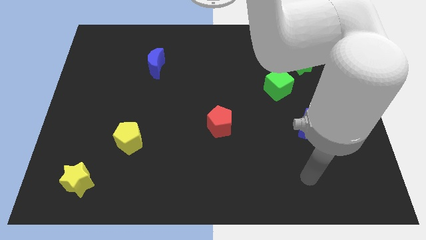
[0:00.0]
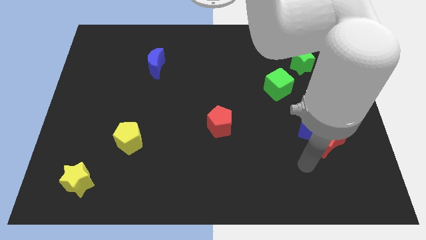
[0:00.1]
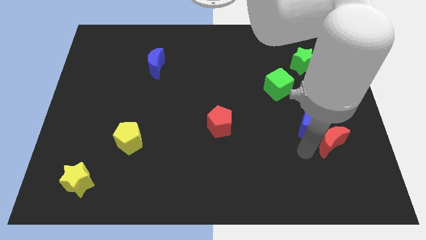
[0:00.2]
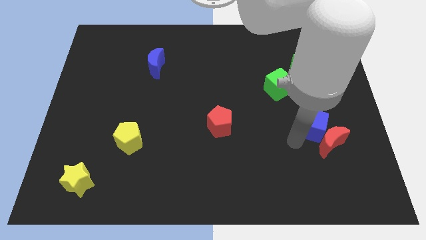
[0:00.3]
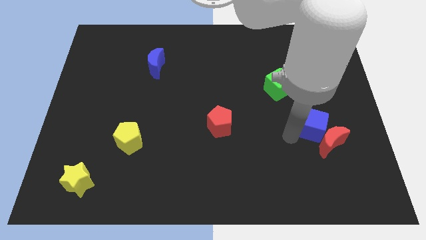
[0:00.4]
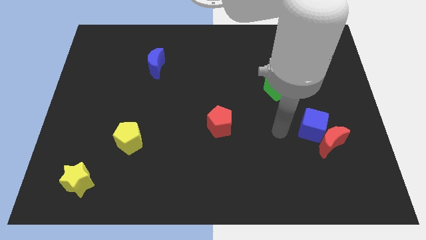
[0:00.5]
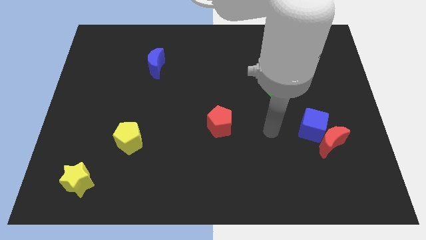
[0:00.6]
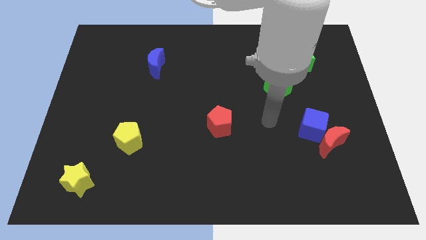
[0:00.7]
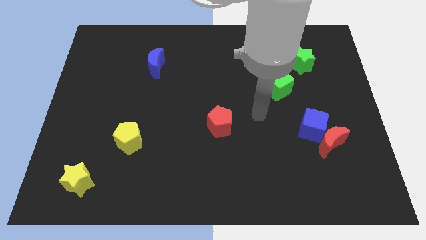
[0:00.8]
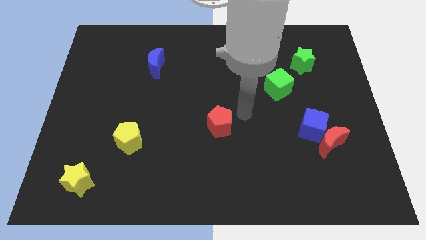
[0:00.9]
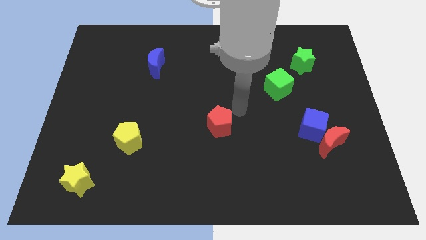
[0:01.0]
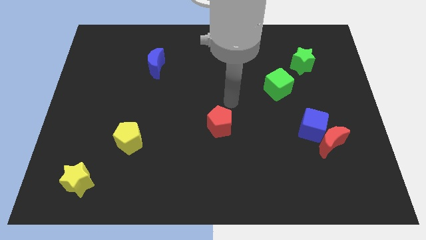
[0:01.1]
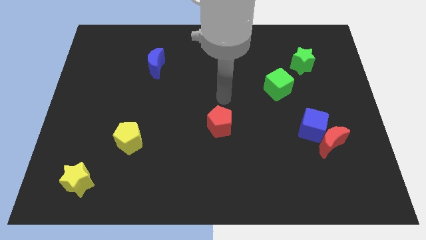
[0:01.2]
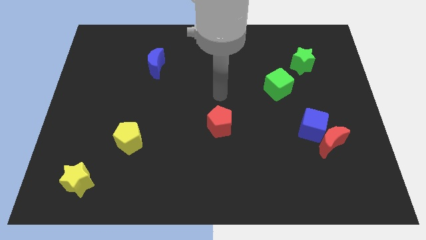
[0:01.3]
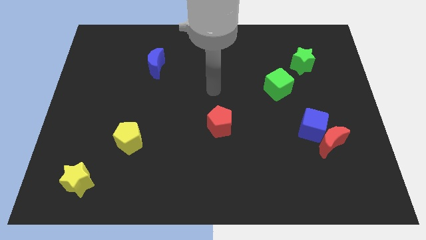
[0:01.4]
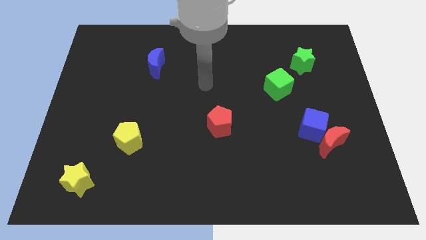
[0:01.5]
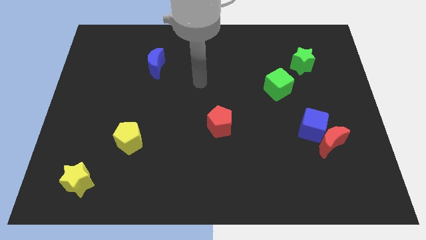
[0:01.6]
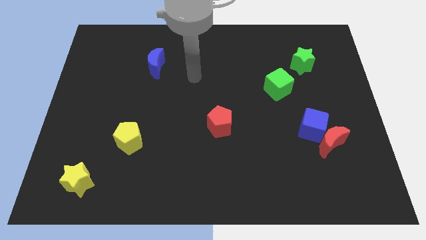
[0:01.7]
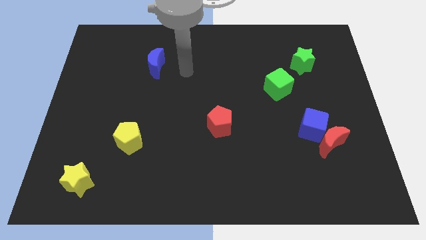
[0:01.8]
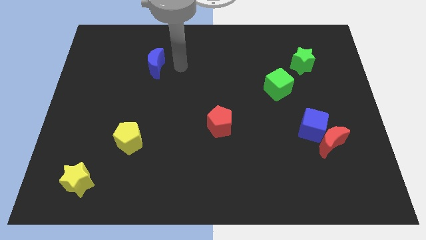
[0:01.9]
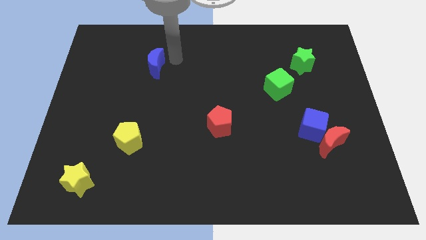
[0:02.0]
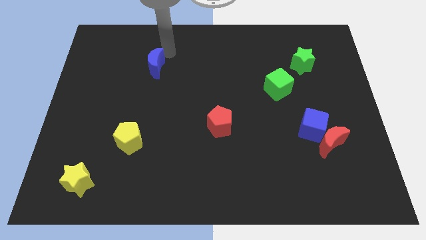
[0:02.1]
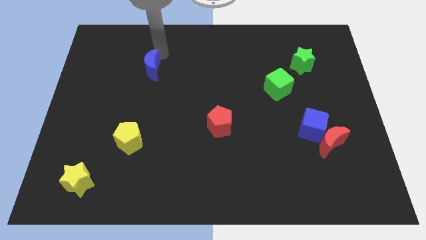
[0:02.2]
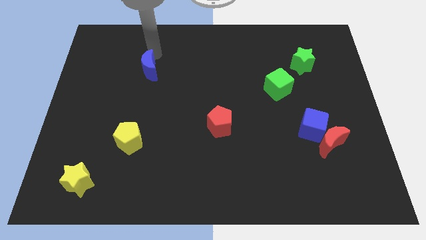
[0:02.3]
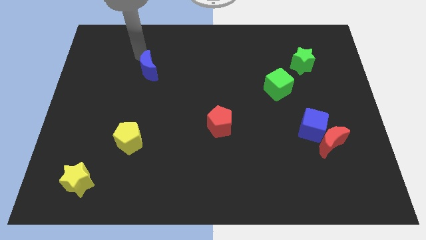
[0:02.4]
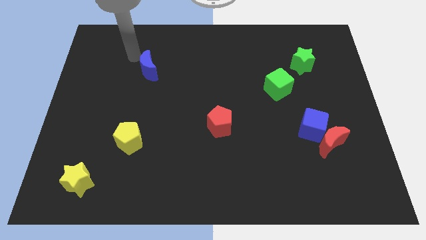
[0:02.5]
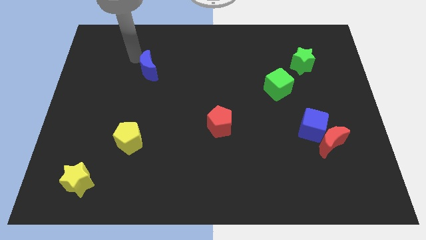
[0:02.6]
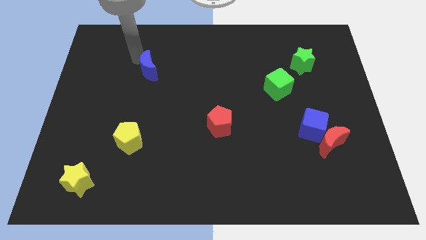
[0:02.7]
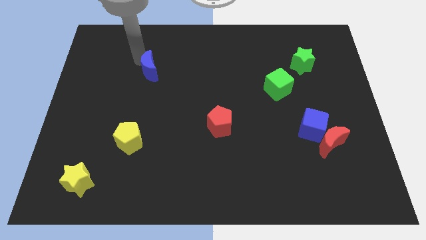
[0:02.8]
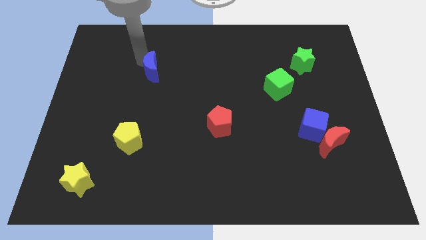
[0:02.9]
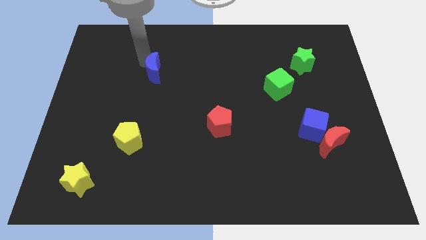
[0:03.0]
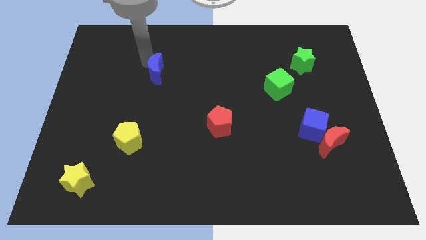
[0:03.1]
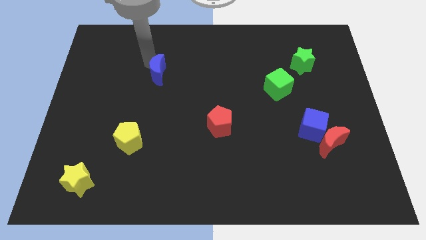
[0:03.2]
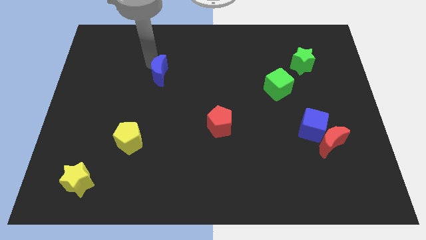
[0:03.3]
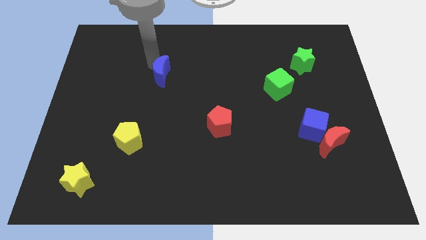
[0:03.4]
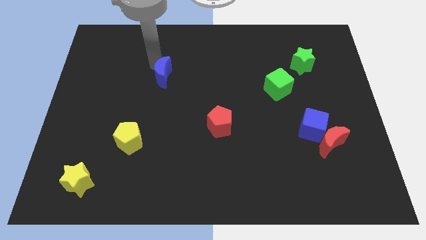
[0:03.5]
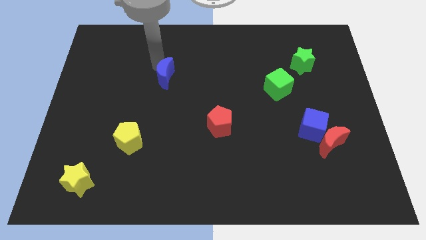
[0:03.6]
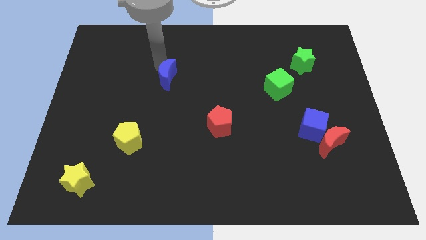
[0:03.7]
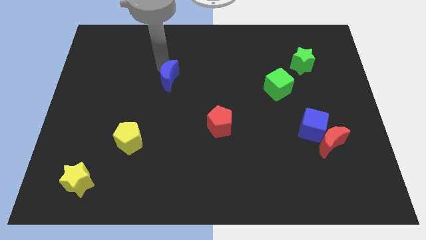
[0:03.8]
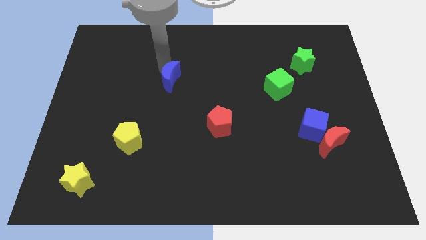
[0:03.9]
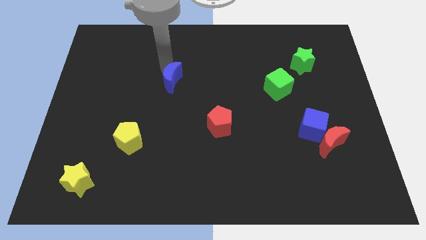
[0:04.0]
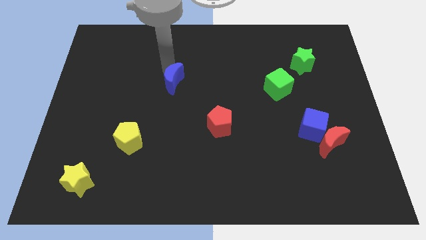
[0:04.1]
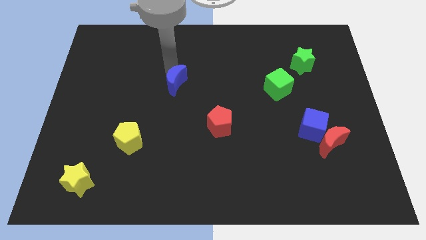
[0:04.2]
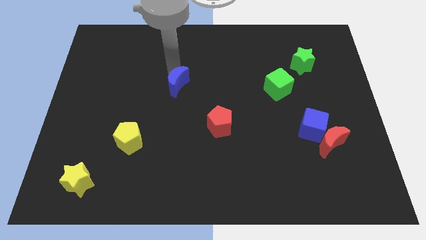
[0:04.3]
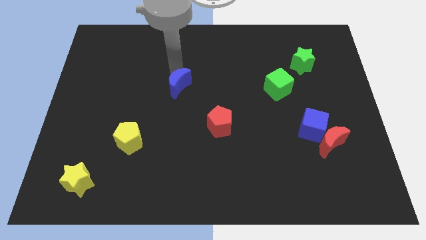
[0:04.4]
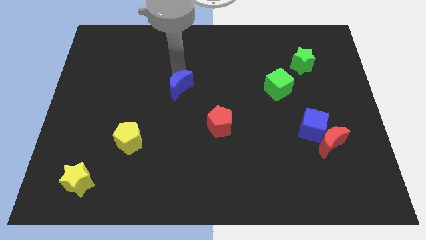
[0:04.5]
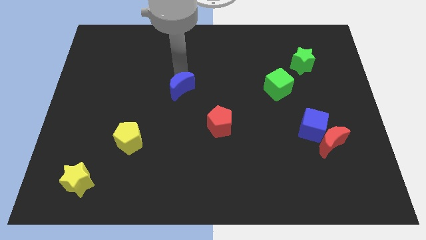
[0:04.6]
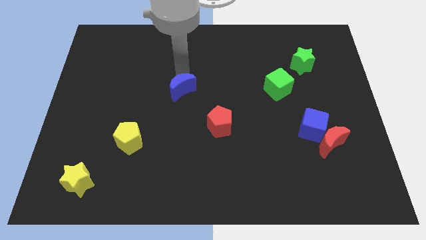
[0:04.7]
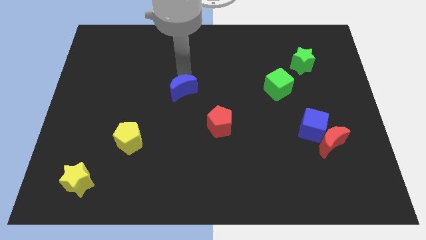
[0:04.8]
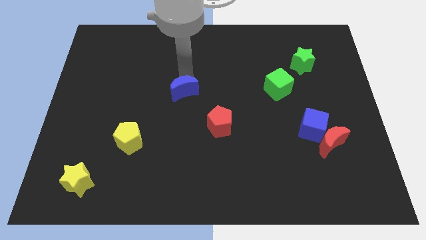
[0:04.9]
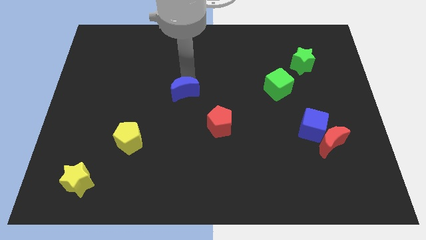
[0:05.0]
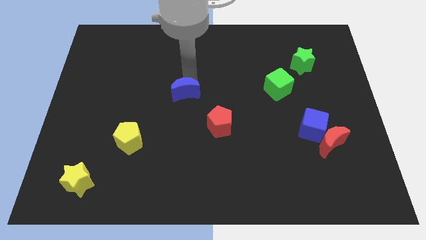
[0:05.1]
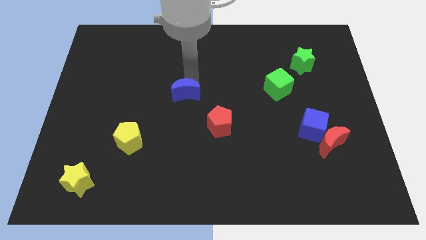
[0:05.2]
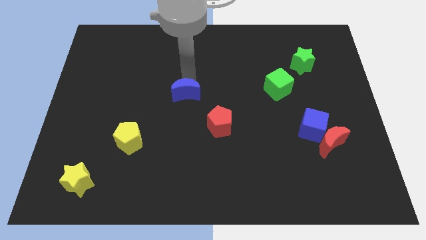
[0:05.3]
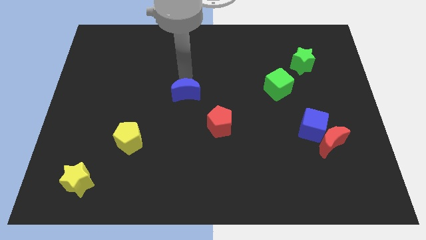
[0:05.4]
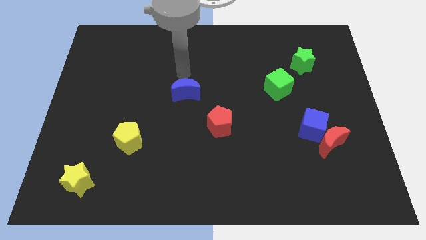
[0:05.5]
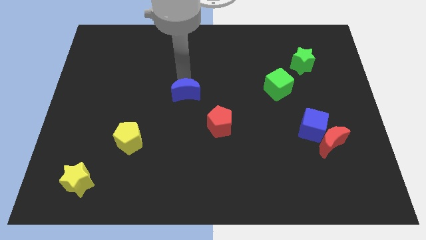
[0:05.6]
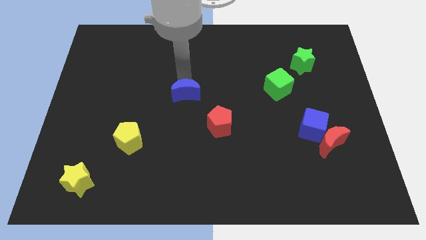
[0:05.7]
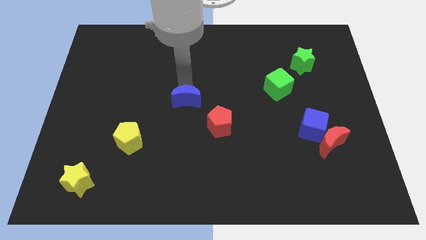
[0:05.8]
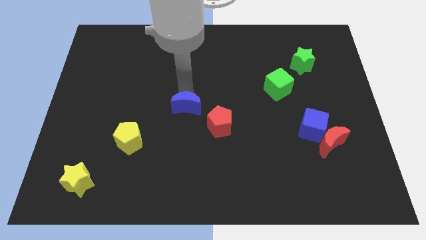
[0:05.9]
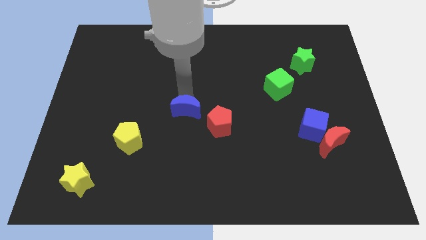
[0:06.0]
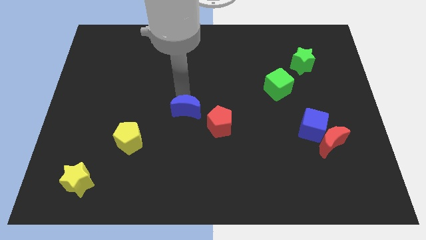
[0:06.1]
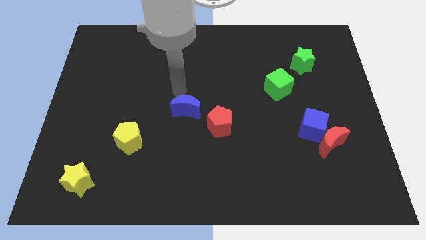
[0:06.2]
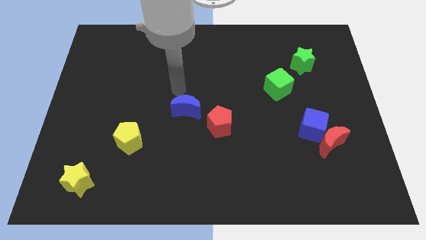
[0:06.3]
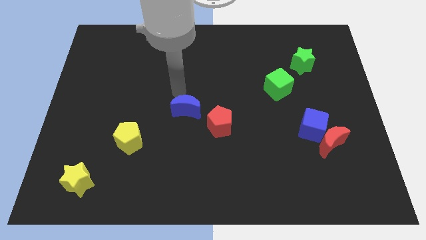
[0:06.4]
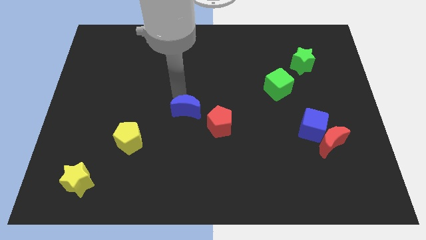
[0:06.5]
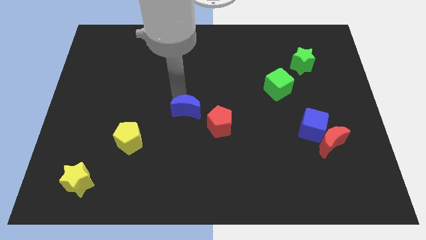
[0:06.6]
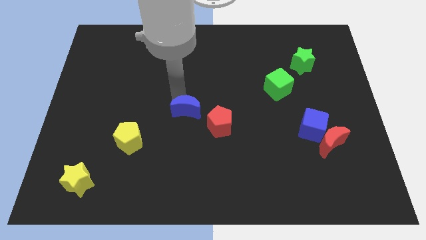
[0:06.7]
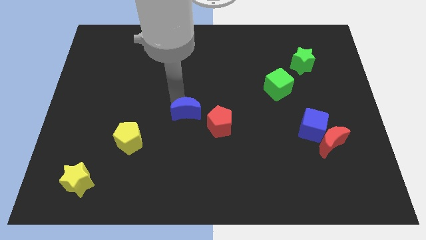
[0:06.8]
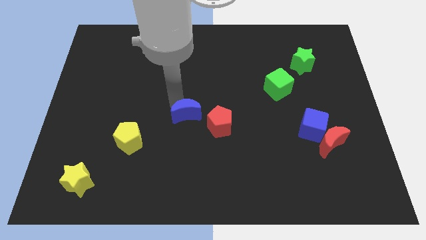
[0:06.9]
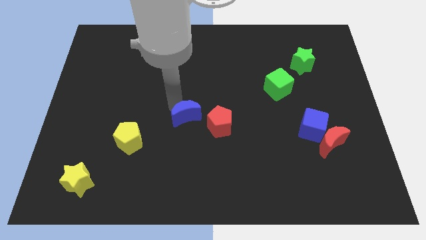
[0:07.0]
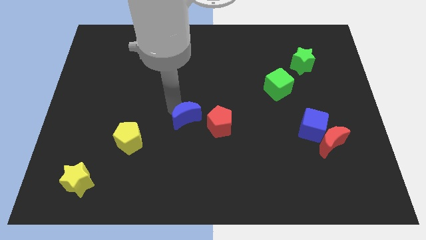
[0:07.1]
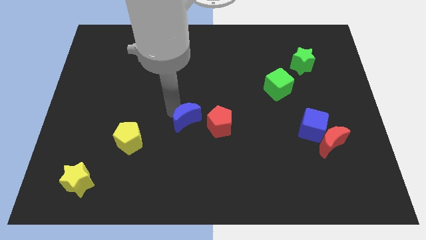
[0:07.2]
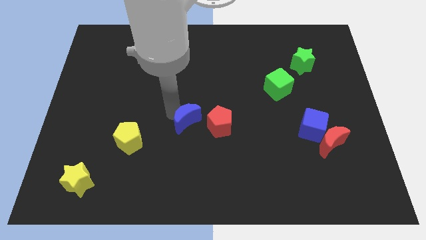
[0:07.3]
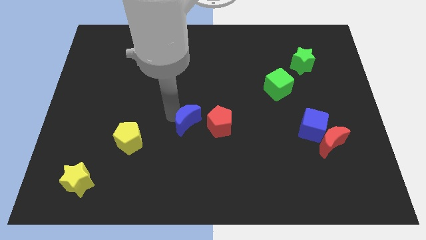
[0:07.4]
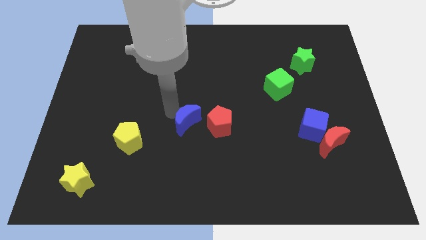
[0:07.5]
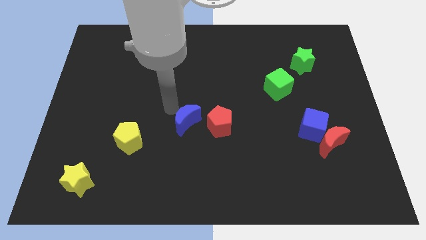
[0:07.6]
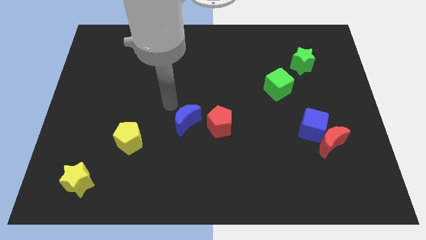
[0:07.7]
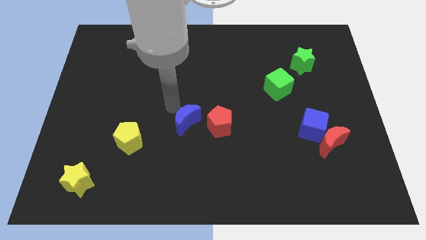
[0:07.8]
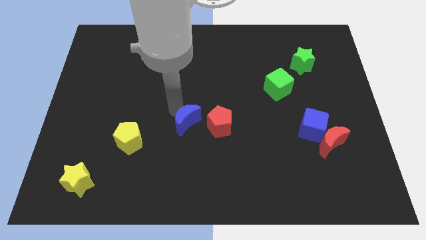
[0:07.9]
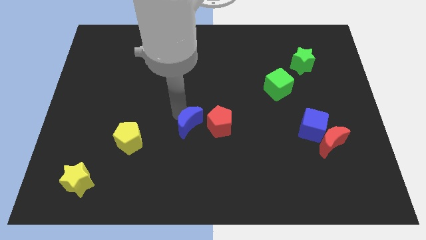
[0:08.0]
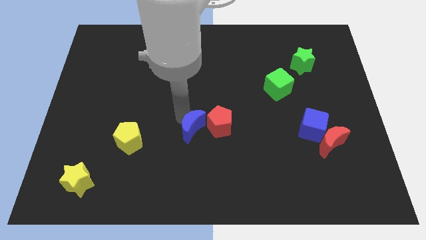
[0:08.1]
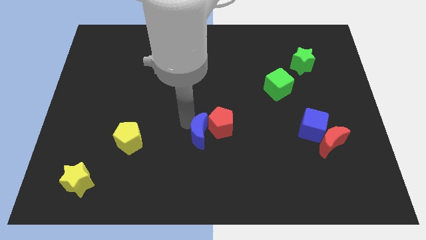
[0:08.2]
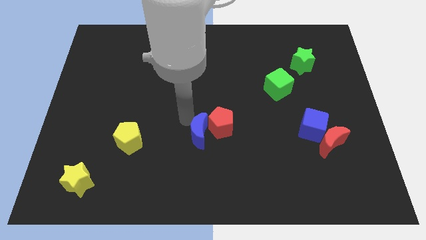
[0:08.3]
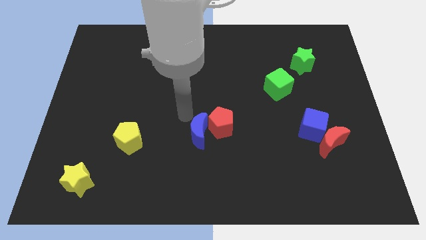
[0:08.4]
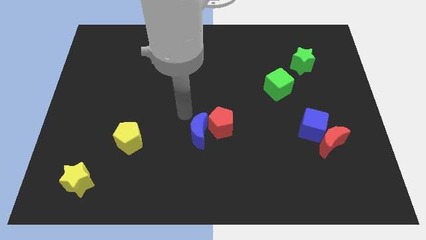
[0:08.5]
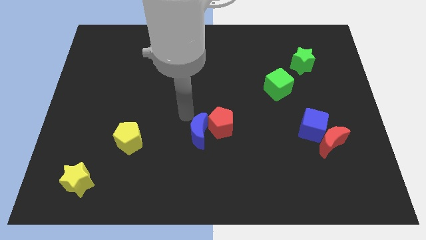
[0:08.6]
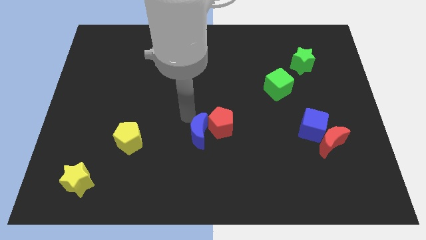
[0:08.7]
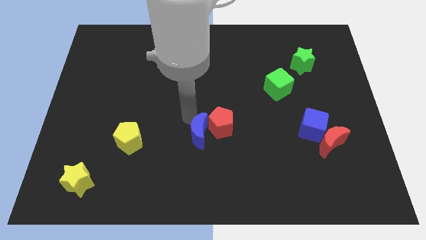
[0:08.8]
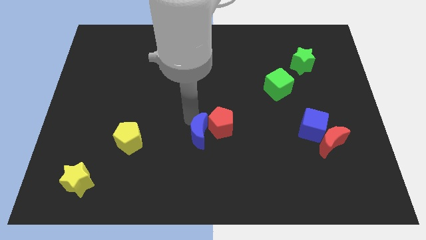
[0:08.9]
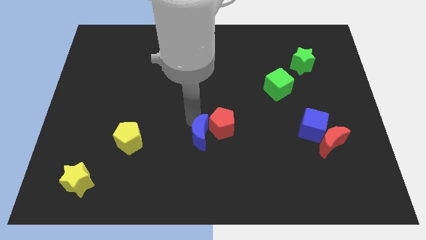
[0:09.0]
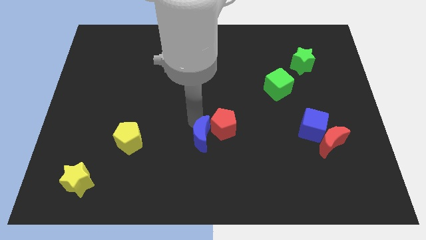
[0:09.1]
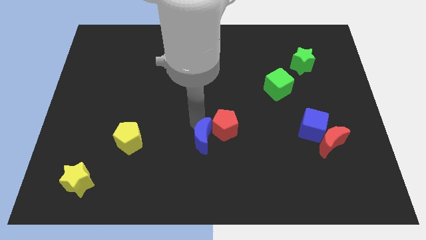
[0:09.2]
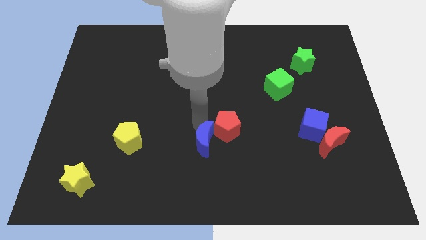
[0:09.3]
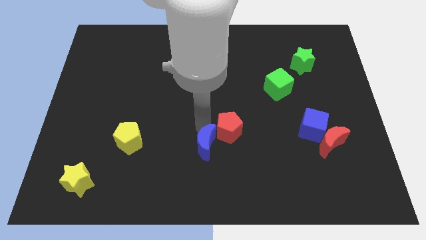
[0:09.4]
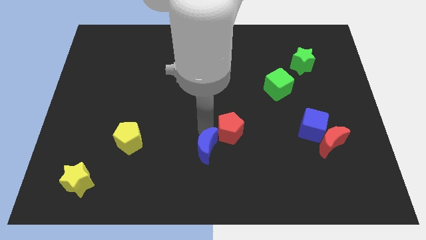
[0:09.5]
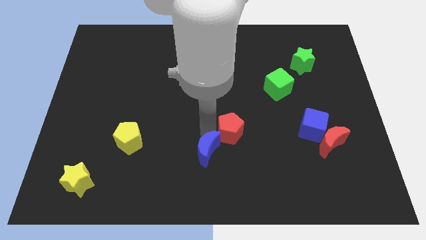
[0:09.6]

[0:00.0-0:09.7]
slide the blue moon to the bottom of the red pentagon
